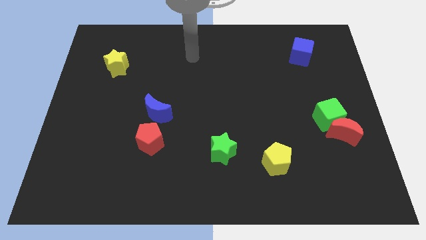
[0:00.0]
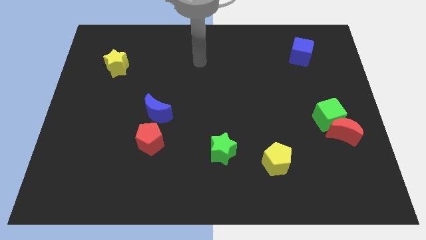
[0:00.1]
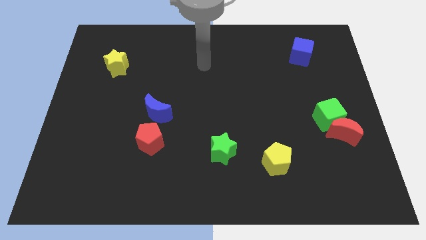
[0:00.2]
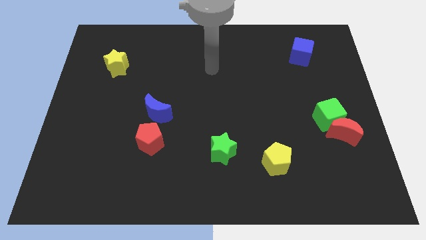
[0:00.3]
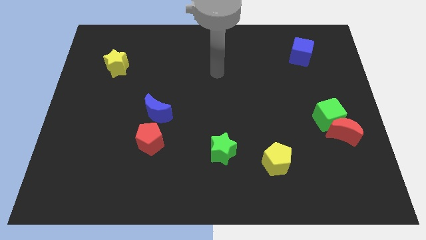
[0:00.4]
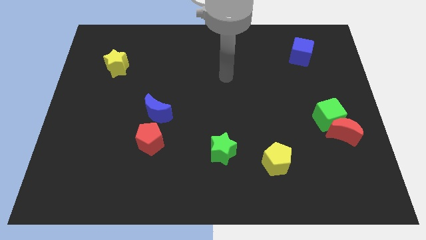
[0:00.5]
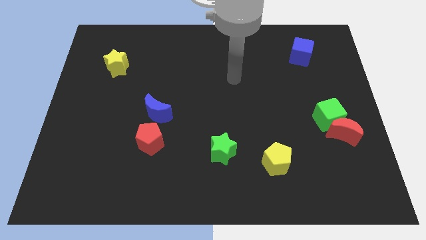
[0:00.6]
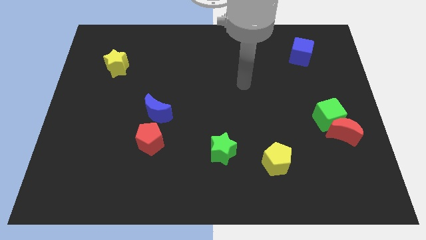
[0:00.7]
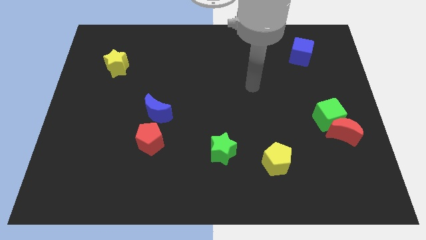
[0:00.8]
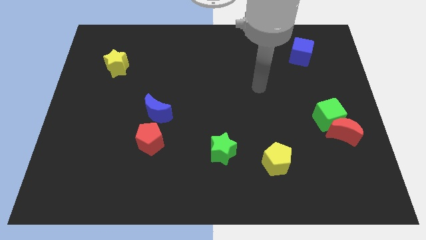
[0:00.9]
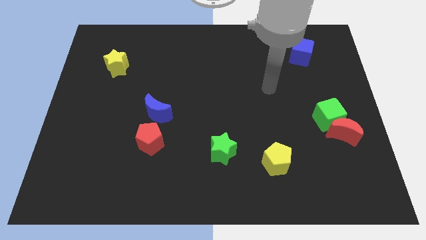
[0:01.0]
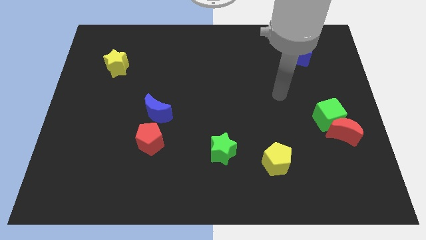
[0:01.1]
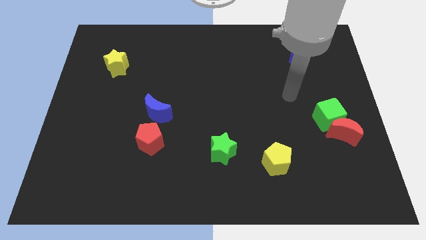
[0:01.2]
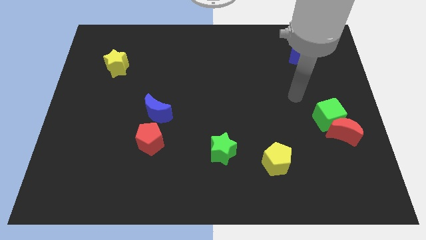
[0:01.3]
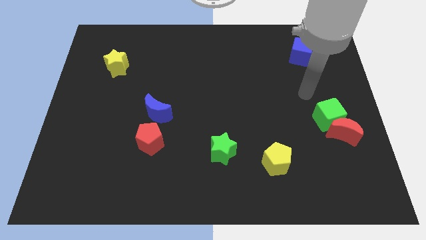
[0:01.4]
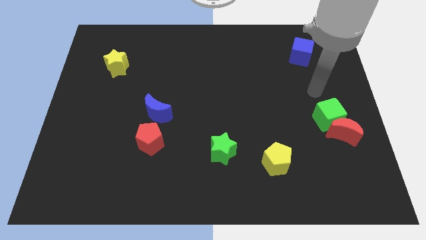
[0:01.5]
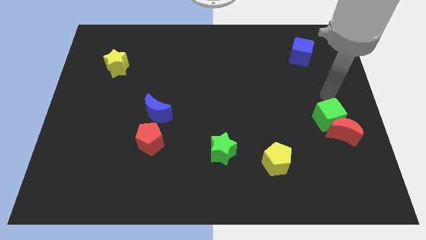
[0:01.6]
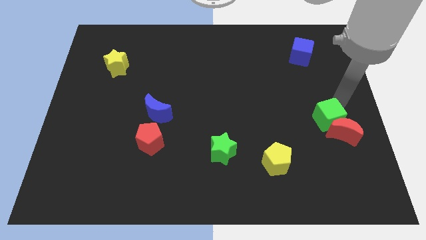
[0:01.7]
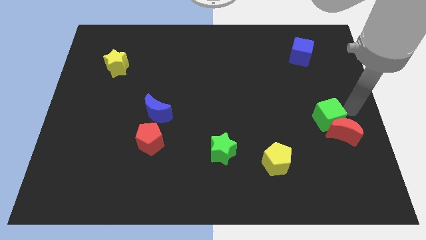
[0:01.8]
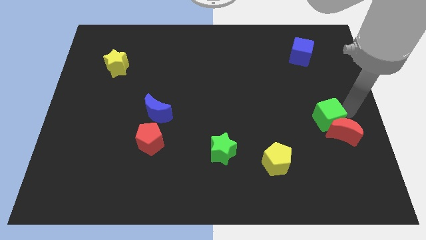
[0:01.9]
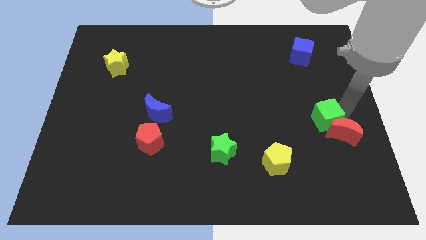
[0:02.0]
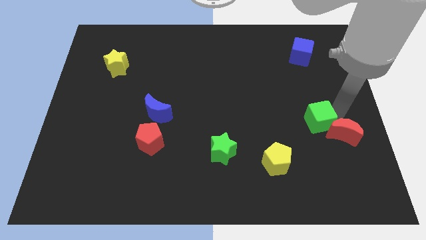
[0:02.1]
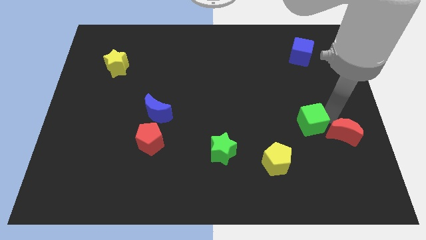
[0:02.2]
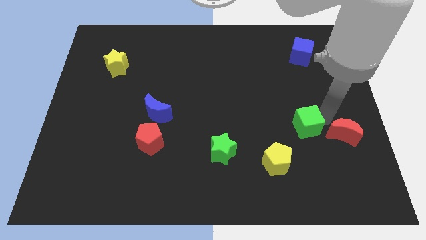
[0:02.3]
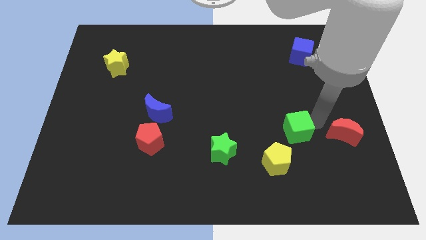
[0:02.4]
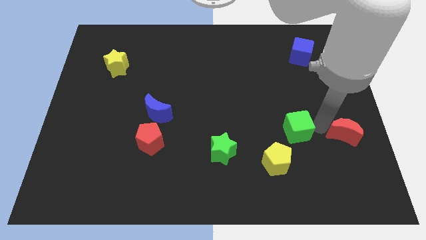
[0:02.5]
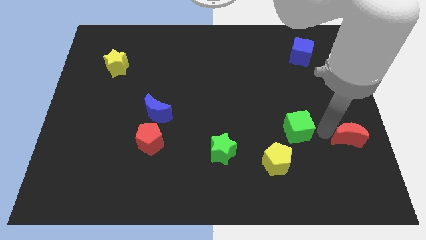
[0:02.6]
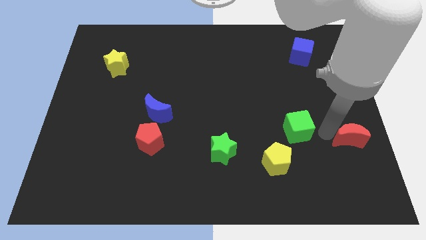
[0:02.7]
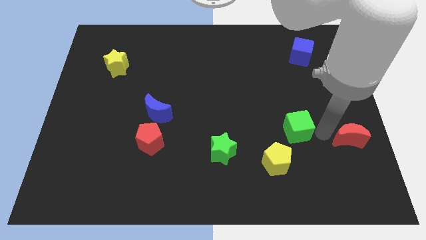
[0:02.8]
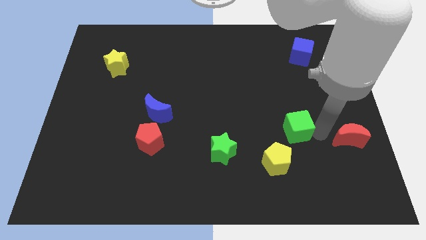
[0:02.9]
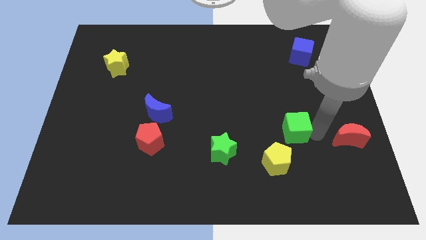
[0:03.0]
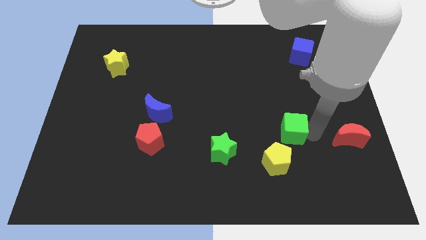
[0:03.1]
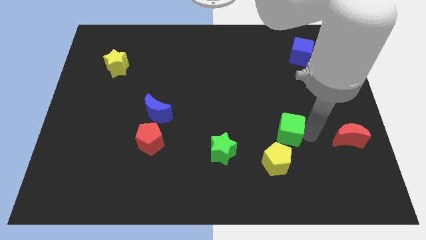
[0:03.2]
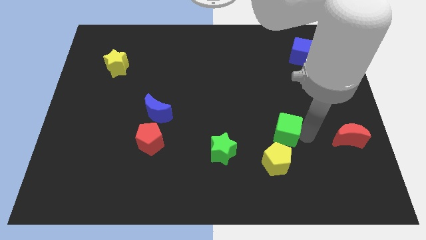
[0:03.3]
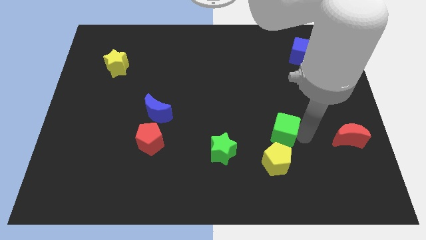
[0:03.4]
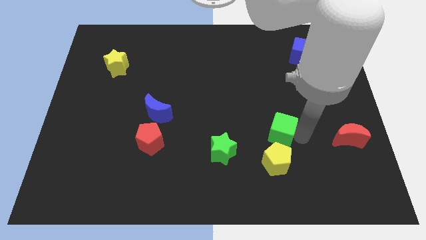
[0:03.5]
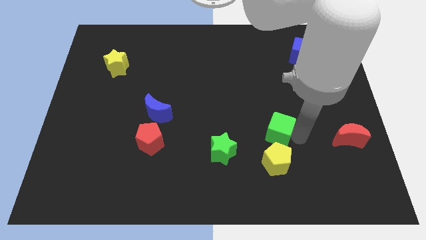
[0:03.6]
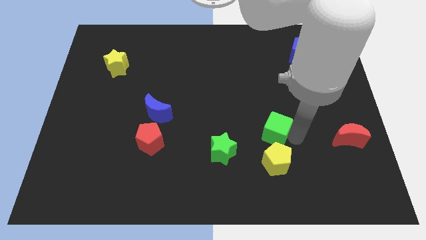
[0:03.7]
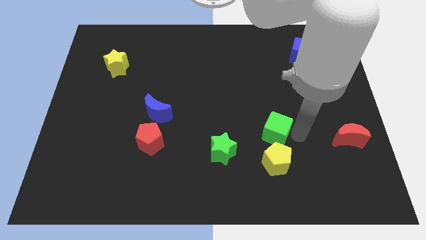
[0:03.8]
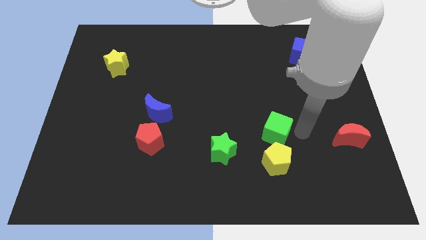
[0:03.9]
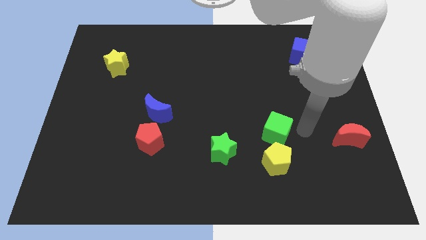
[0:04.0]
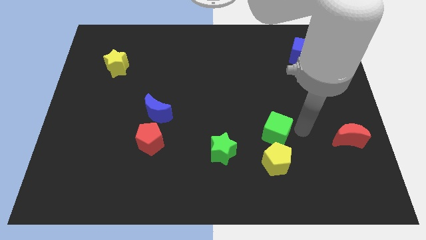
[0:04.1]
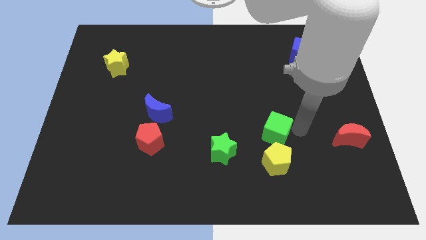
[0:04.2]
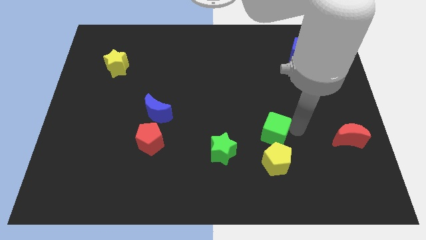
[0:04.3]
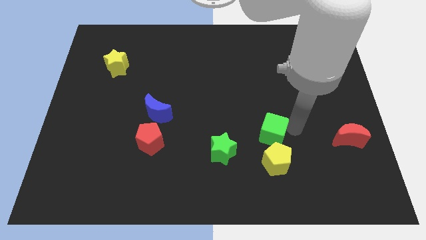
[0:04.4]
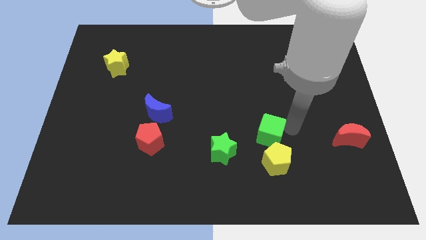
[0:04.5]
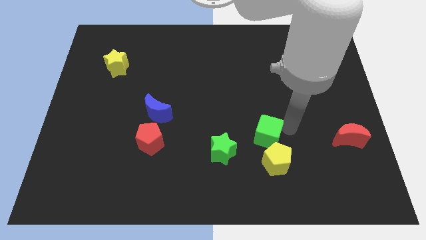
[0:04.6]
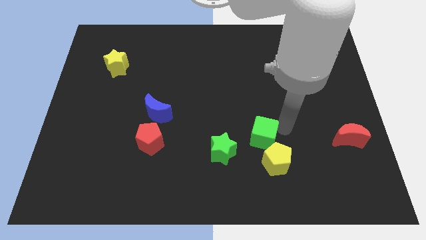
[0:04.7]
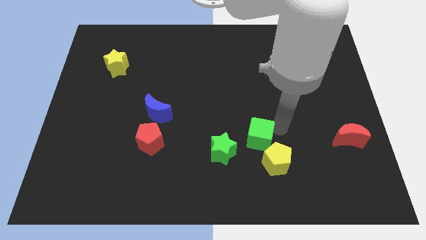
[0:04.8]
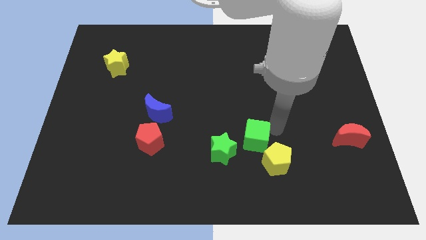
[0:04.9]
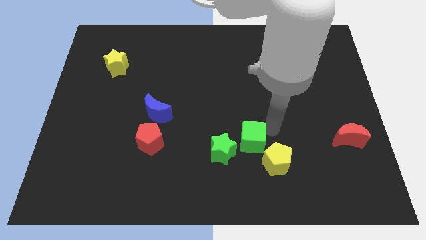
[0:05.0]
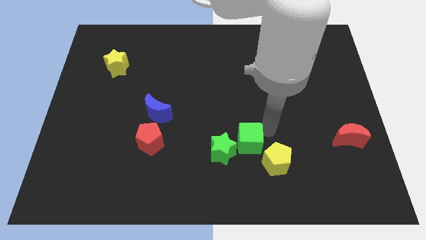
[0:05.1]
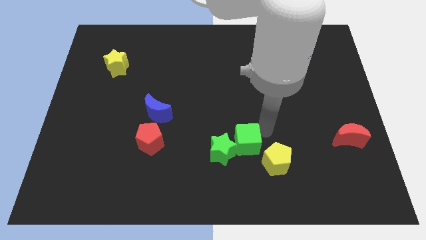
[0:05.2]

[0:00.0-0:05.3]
move the green cube close to the green star

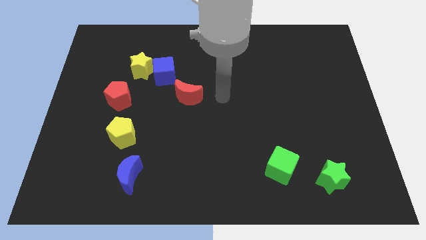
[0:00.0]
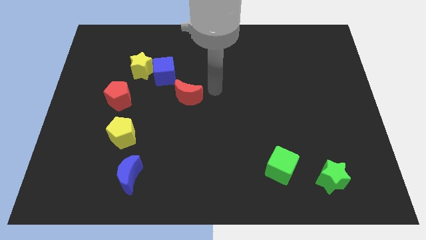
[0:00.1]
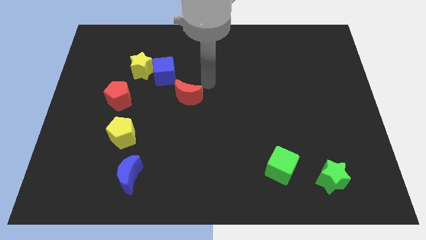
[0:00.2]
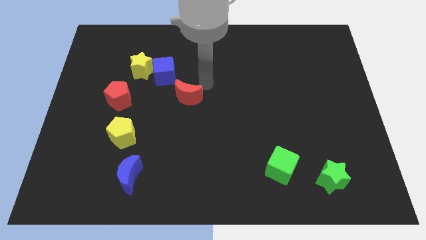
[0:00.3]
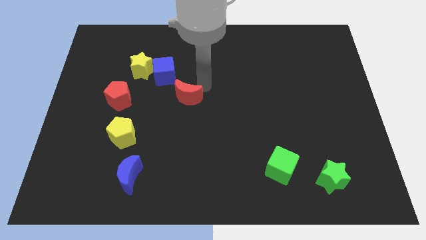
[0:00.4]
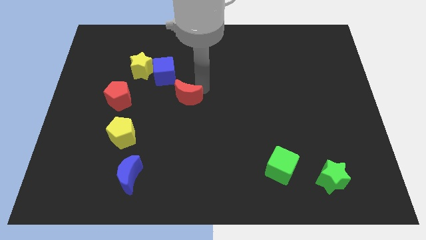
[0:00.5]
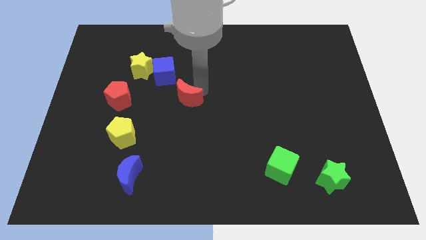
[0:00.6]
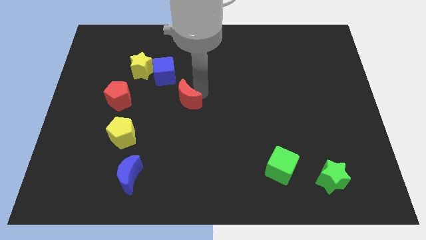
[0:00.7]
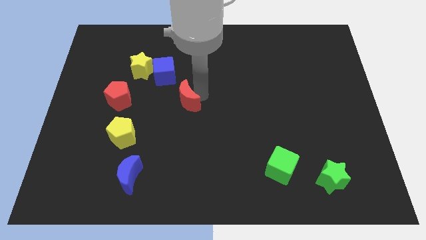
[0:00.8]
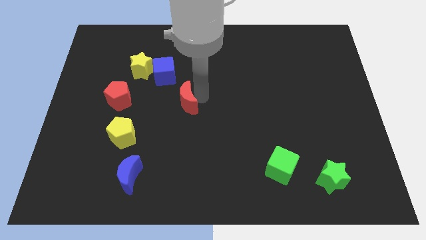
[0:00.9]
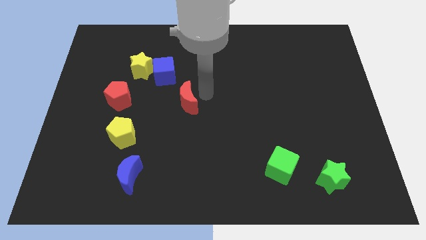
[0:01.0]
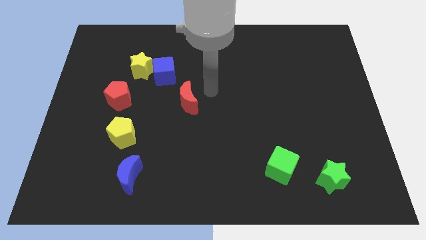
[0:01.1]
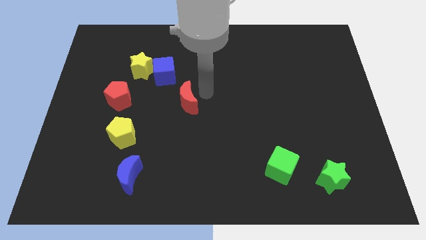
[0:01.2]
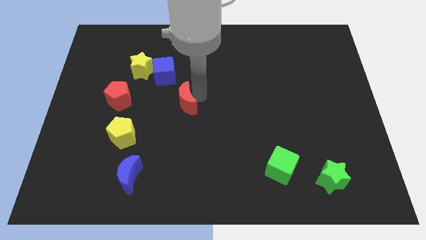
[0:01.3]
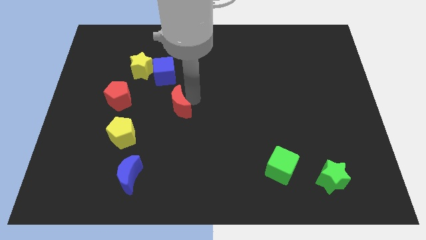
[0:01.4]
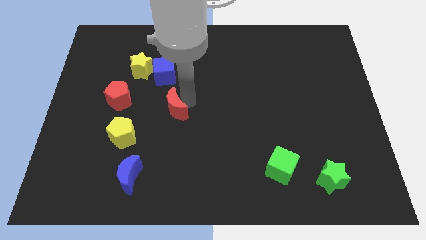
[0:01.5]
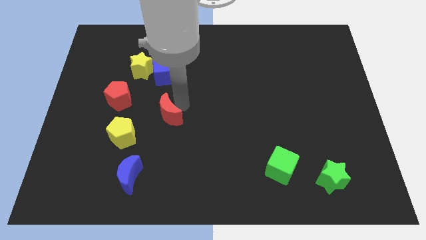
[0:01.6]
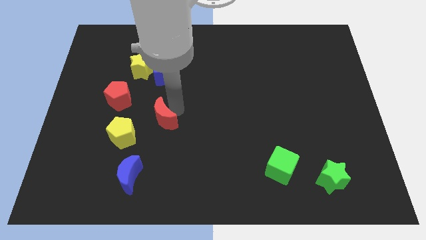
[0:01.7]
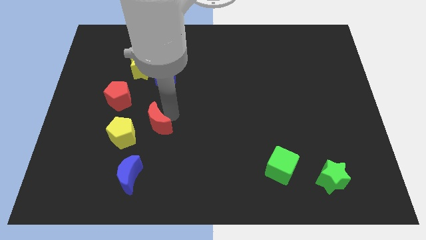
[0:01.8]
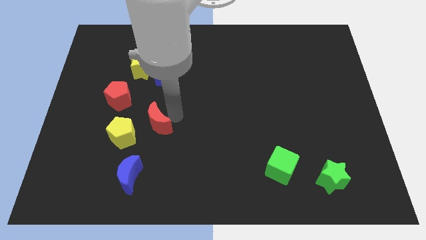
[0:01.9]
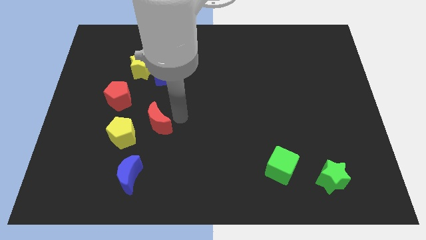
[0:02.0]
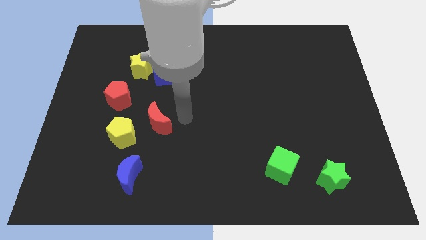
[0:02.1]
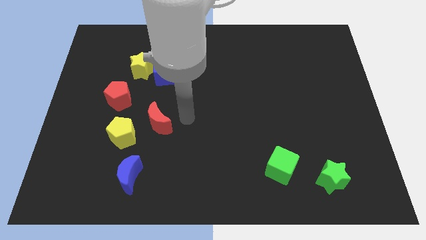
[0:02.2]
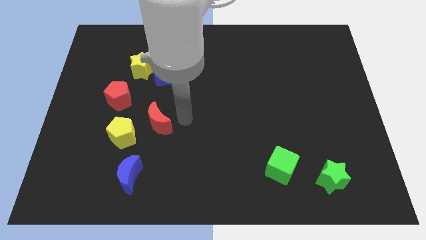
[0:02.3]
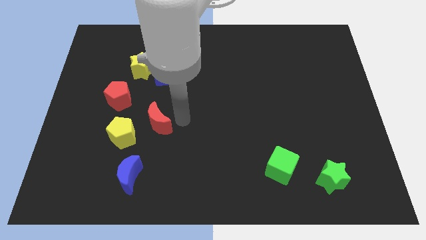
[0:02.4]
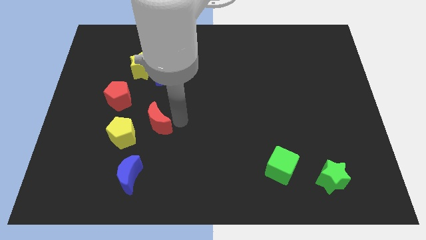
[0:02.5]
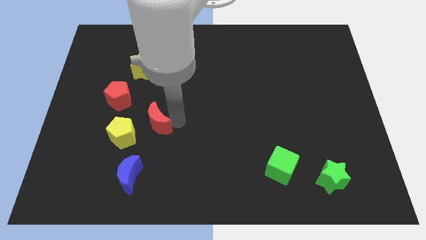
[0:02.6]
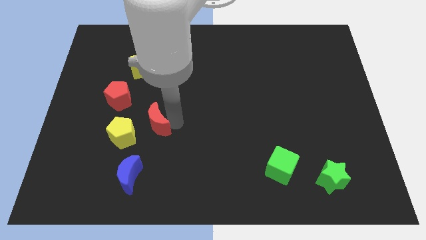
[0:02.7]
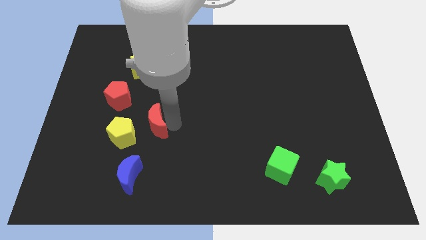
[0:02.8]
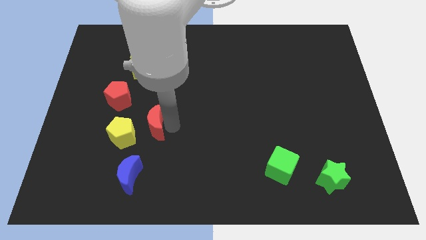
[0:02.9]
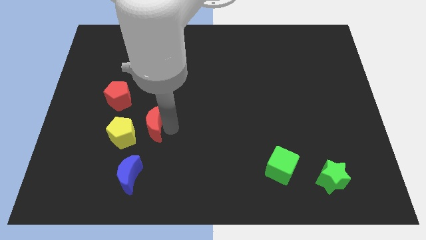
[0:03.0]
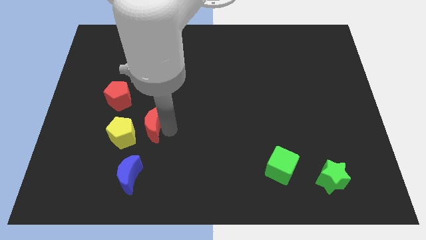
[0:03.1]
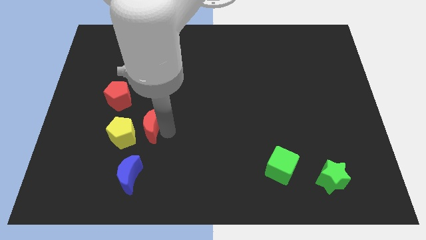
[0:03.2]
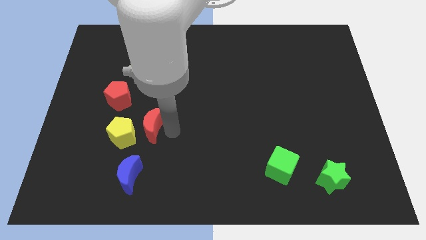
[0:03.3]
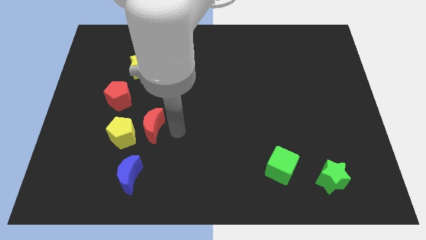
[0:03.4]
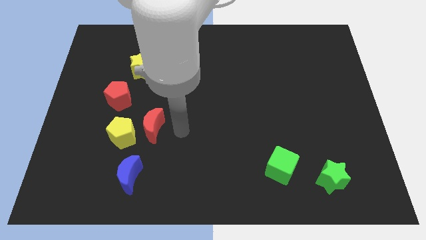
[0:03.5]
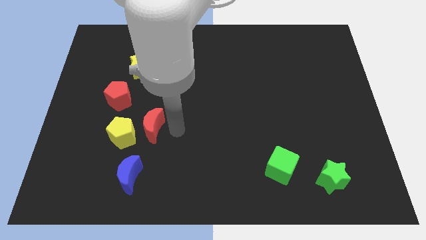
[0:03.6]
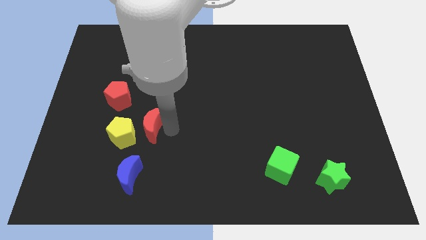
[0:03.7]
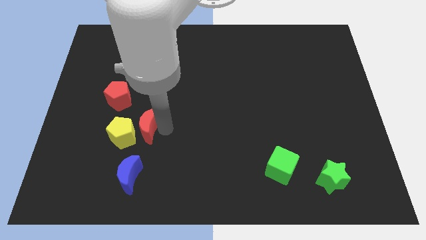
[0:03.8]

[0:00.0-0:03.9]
put the red moon next to the yellow pentagon
